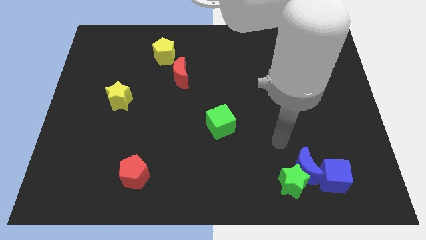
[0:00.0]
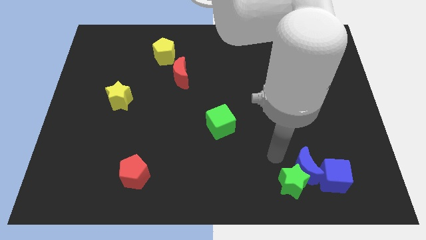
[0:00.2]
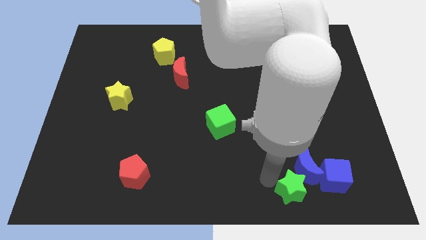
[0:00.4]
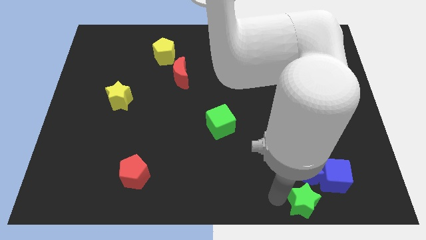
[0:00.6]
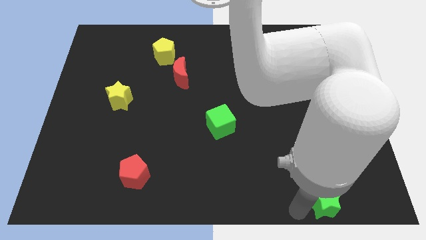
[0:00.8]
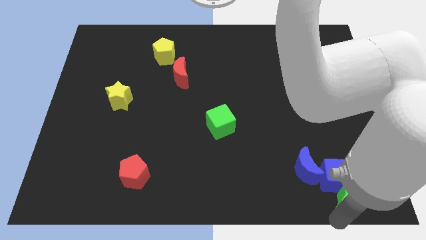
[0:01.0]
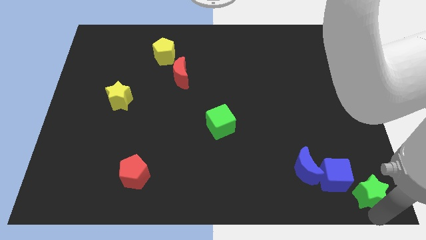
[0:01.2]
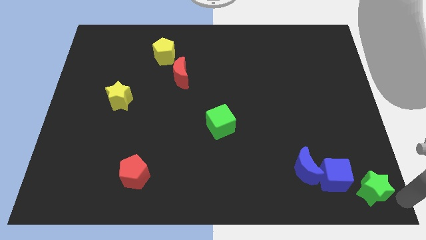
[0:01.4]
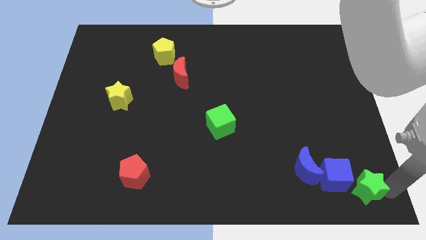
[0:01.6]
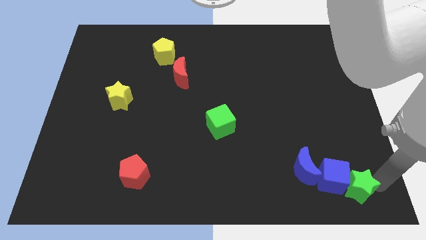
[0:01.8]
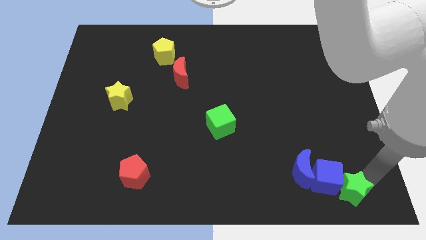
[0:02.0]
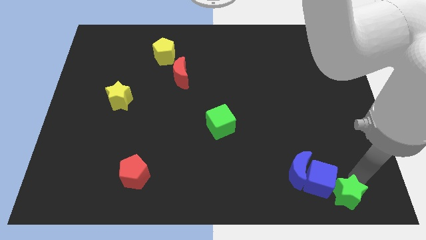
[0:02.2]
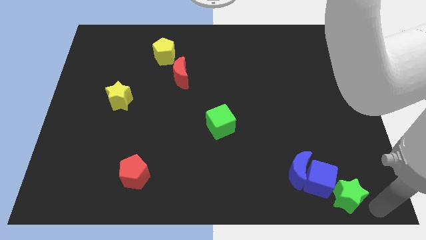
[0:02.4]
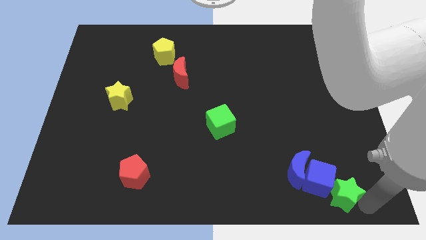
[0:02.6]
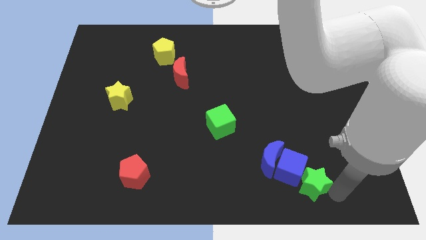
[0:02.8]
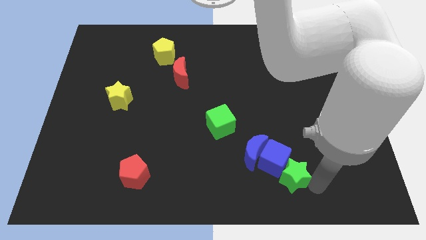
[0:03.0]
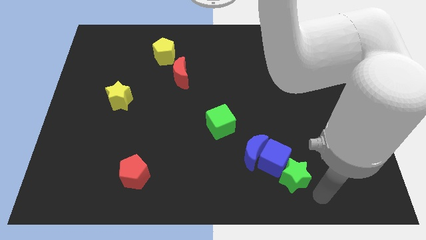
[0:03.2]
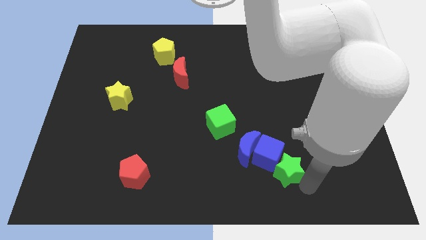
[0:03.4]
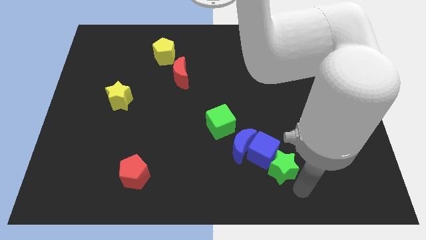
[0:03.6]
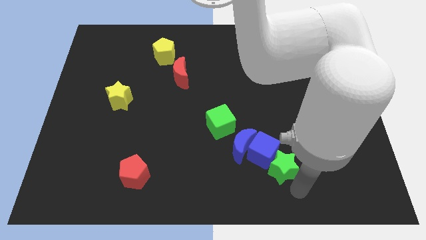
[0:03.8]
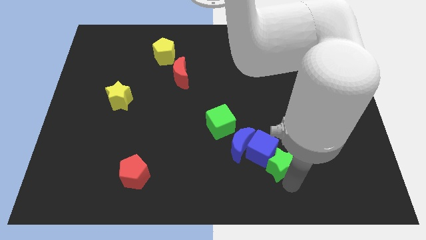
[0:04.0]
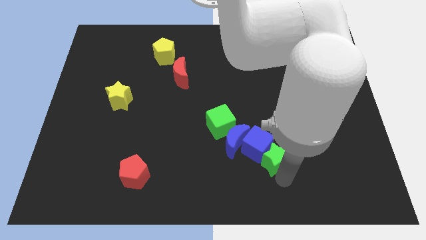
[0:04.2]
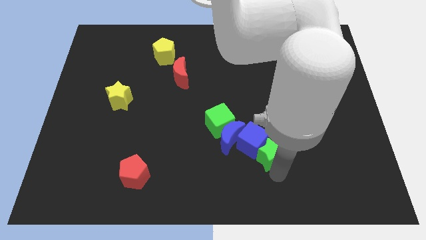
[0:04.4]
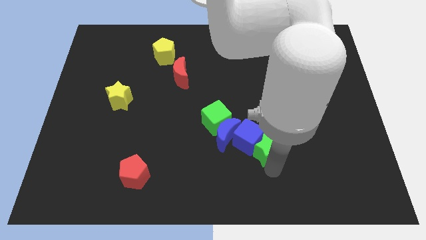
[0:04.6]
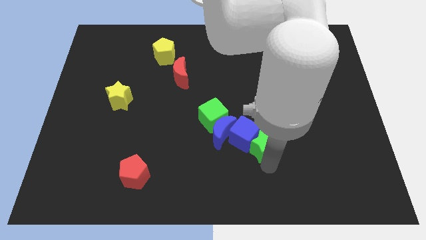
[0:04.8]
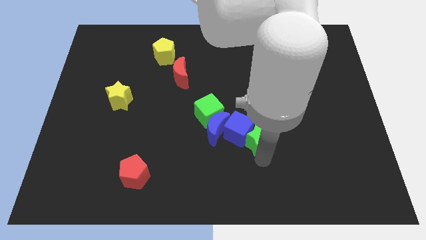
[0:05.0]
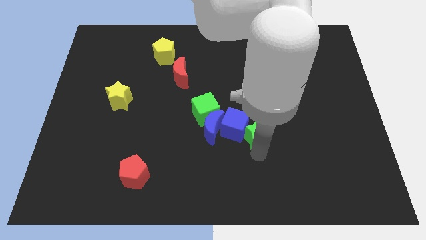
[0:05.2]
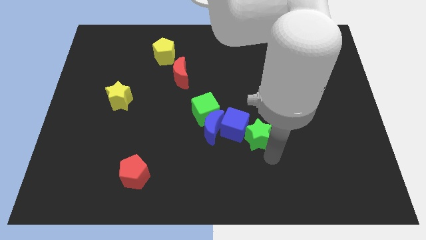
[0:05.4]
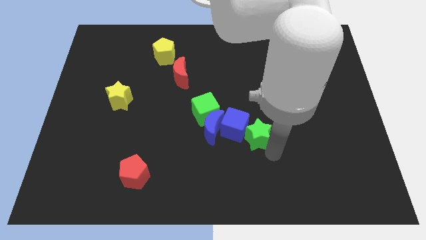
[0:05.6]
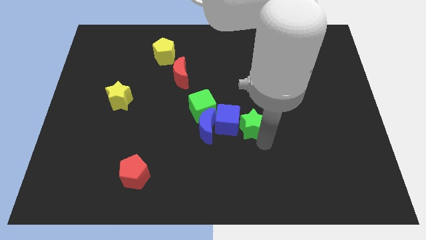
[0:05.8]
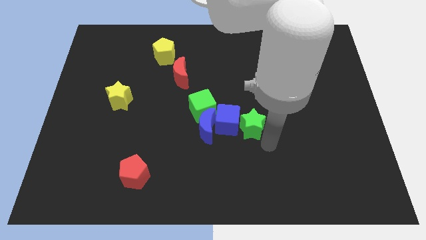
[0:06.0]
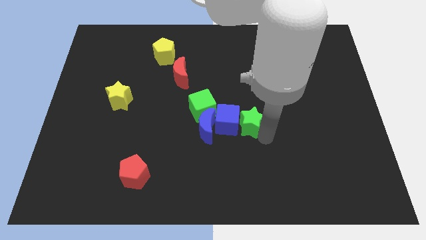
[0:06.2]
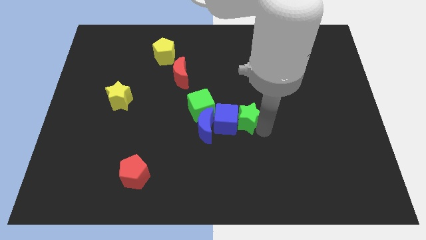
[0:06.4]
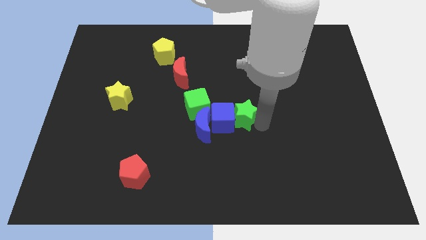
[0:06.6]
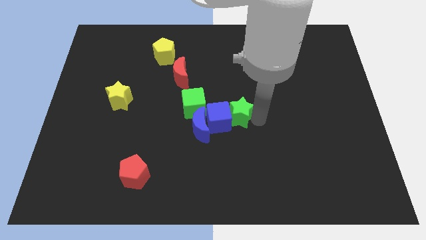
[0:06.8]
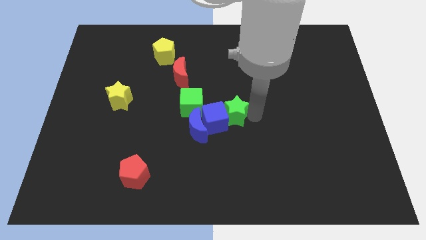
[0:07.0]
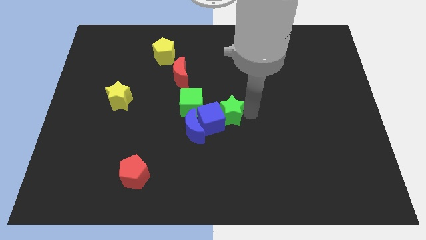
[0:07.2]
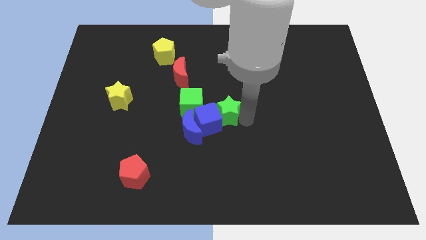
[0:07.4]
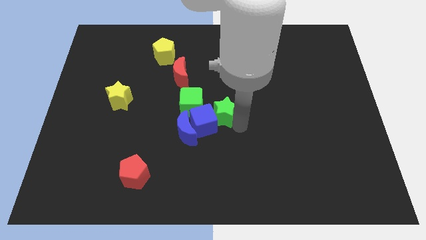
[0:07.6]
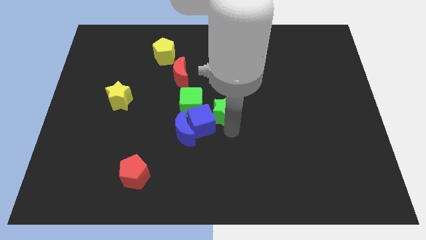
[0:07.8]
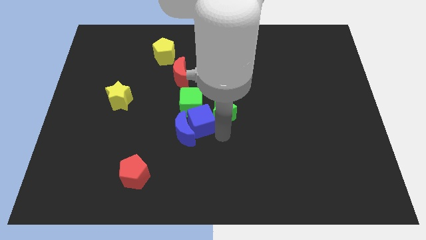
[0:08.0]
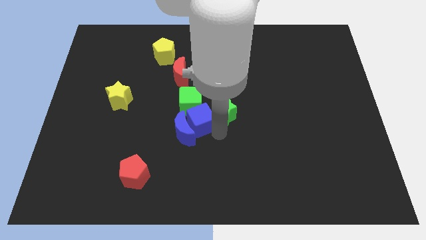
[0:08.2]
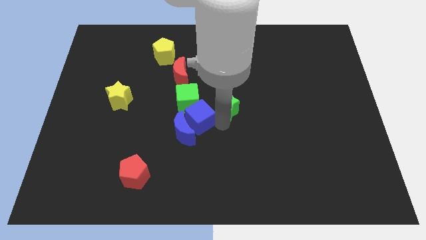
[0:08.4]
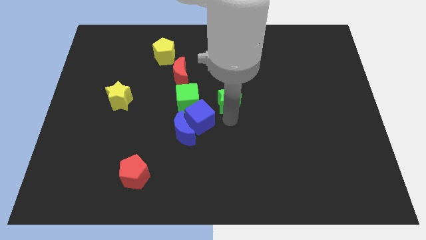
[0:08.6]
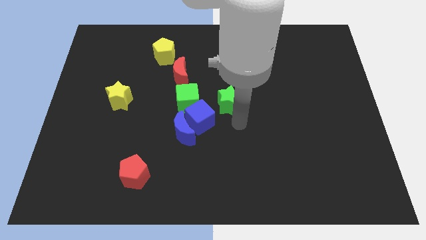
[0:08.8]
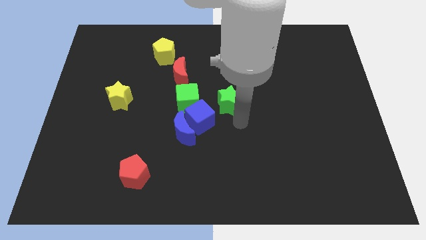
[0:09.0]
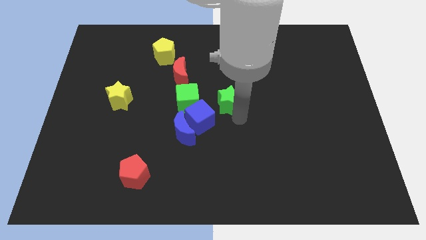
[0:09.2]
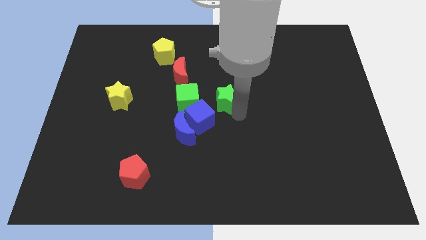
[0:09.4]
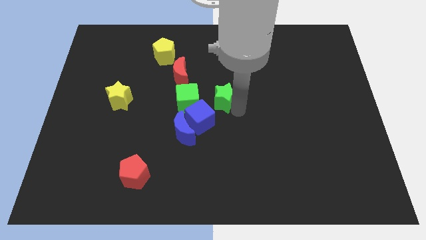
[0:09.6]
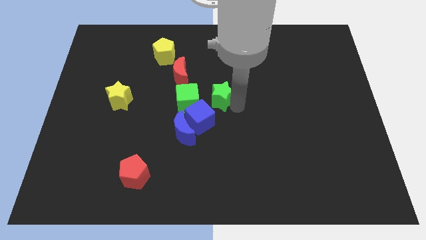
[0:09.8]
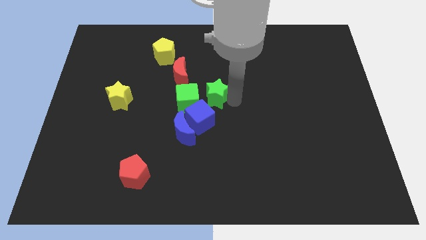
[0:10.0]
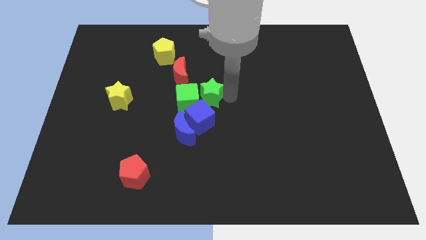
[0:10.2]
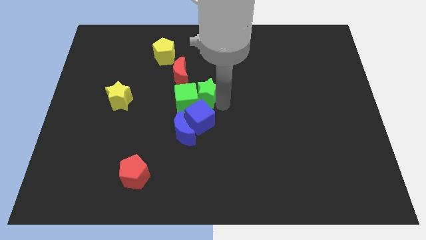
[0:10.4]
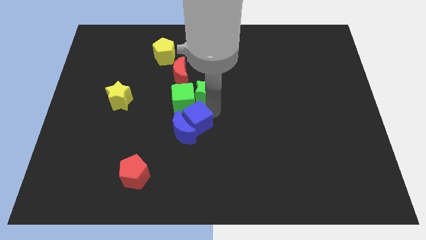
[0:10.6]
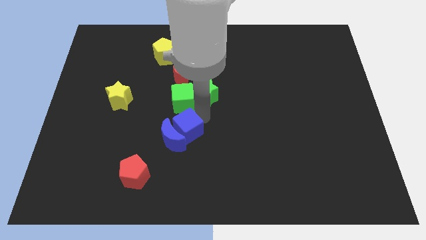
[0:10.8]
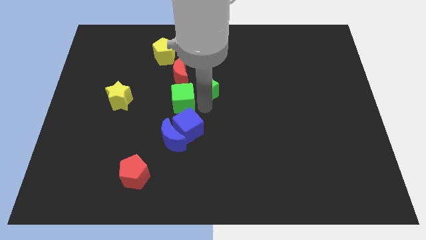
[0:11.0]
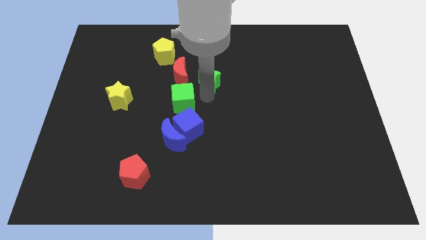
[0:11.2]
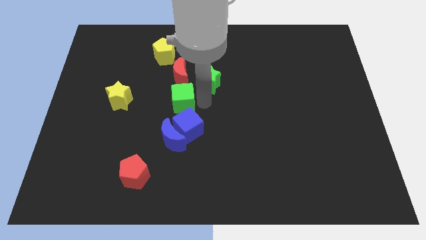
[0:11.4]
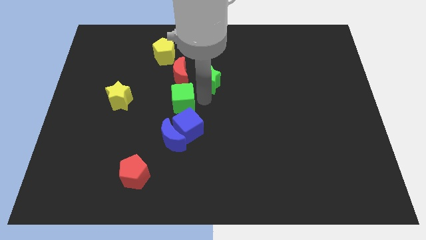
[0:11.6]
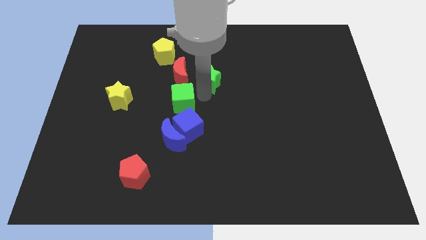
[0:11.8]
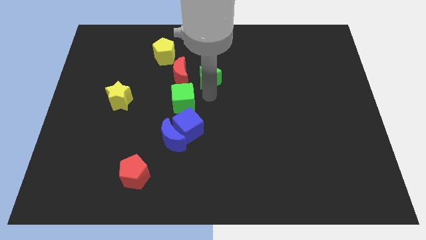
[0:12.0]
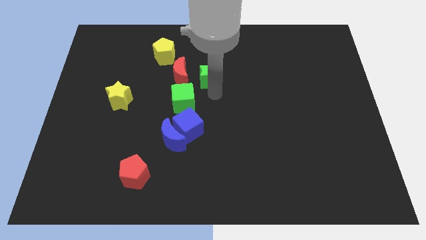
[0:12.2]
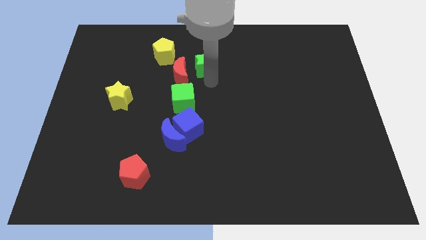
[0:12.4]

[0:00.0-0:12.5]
put the green star to the right side of the yellow pentagon

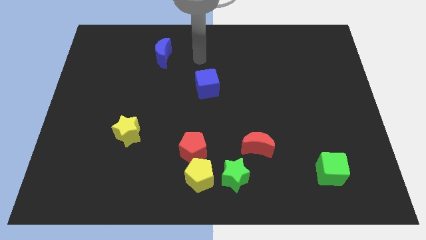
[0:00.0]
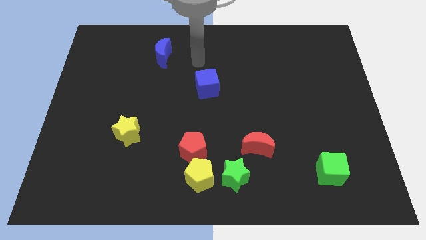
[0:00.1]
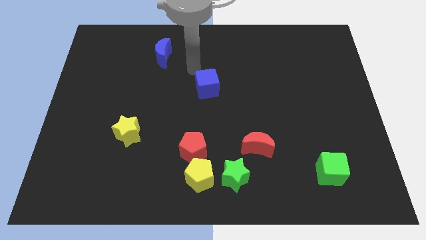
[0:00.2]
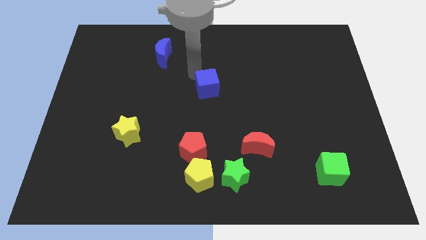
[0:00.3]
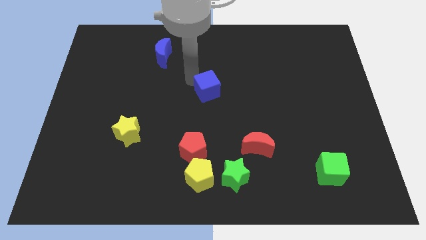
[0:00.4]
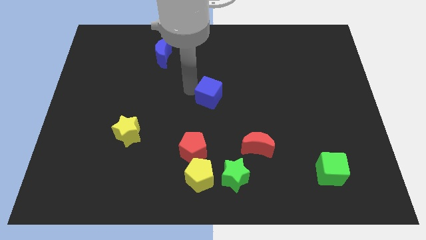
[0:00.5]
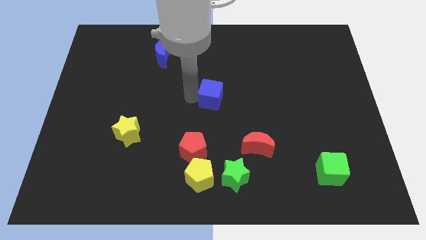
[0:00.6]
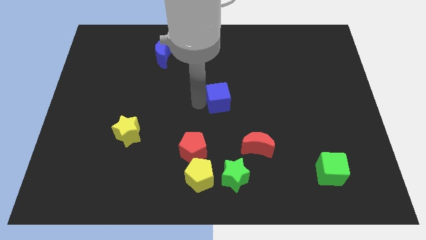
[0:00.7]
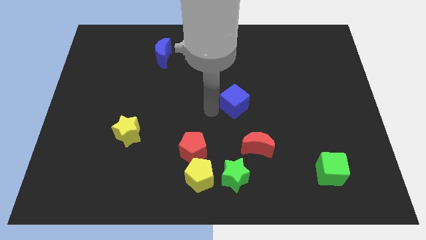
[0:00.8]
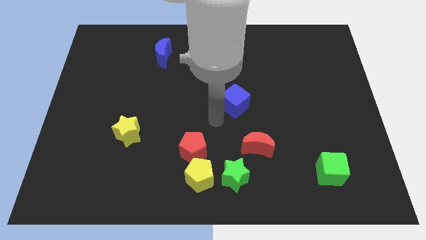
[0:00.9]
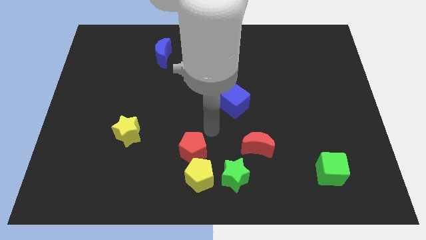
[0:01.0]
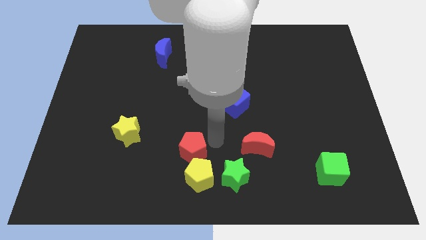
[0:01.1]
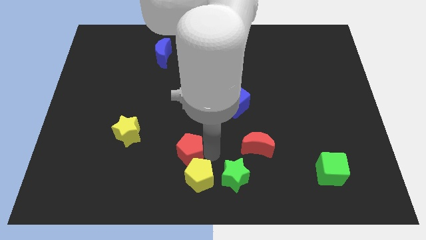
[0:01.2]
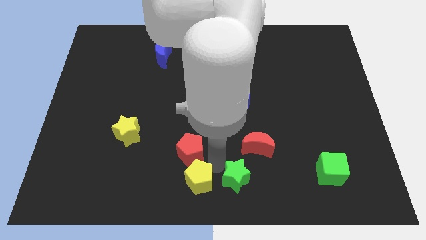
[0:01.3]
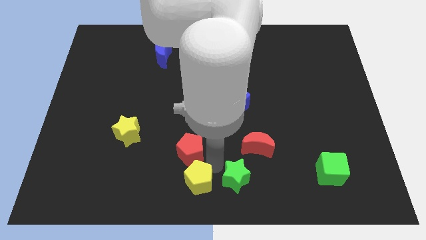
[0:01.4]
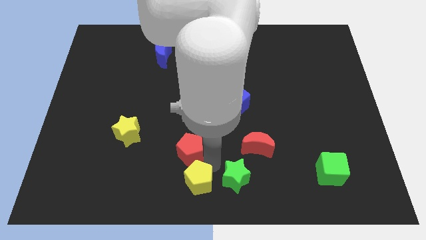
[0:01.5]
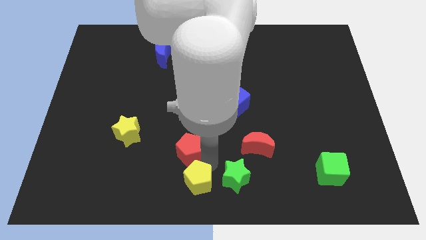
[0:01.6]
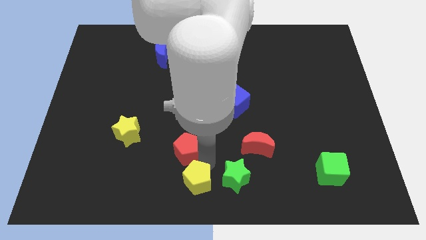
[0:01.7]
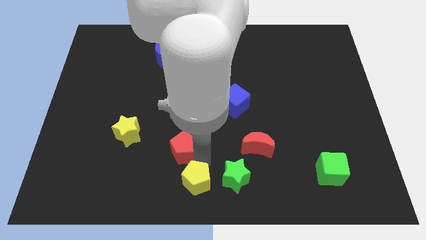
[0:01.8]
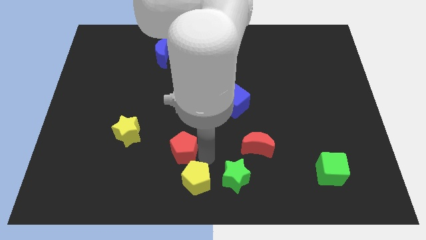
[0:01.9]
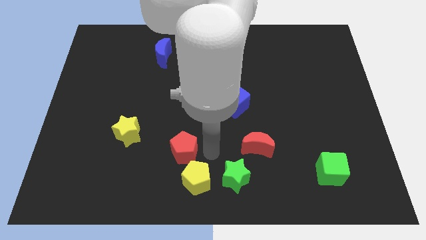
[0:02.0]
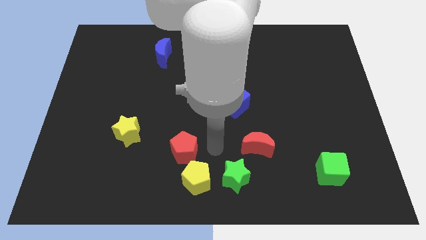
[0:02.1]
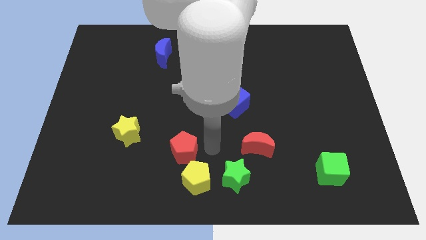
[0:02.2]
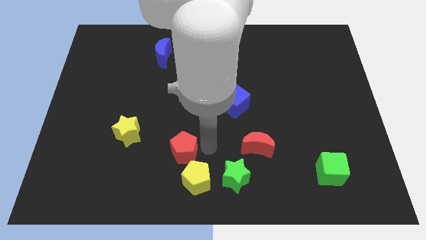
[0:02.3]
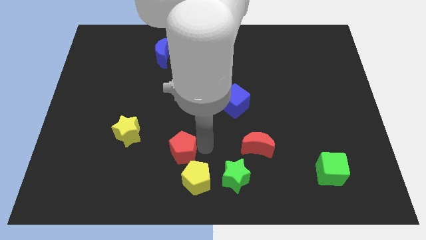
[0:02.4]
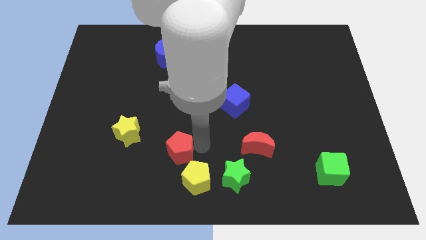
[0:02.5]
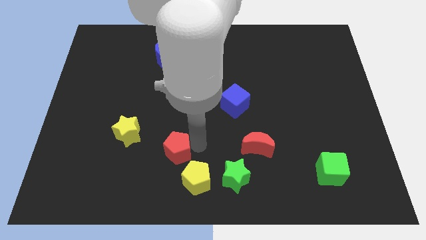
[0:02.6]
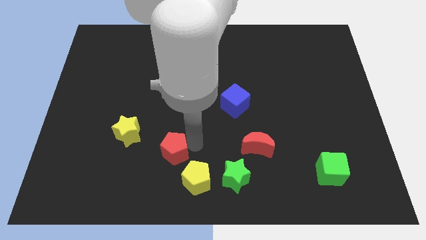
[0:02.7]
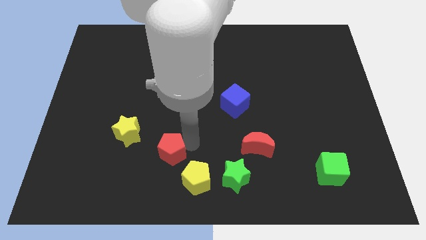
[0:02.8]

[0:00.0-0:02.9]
move the red pentagon diagonally down and to the right of the yellow star
